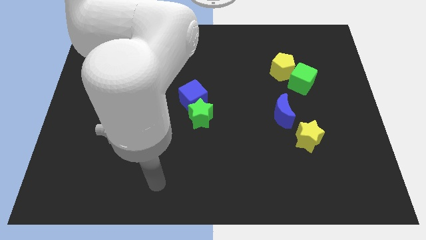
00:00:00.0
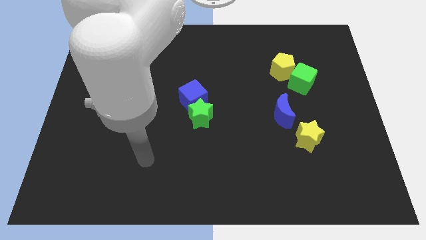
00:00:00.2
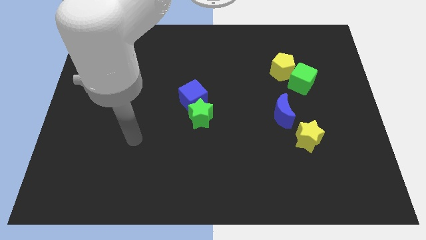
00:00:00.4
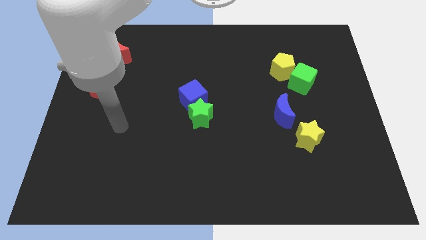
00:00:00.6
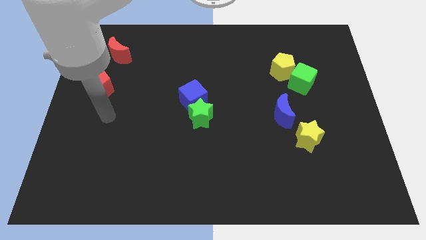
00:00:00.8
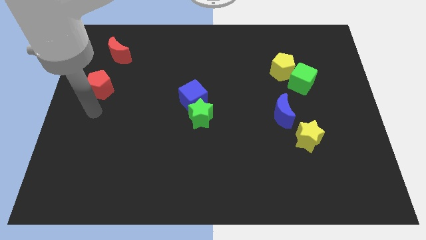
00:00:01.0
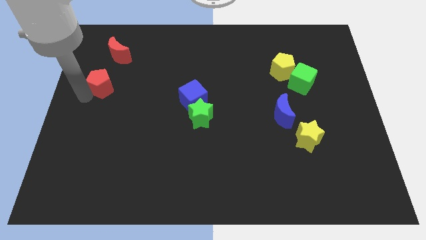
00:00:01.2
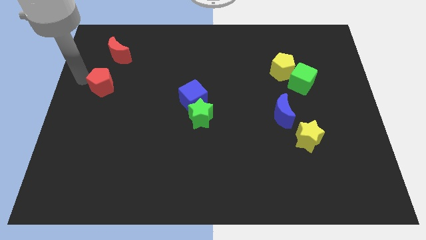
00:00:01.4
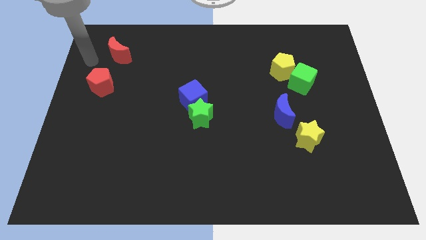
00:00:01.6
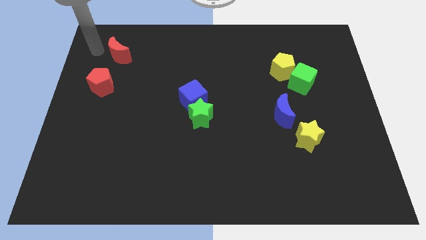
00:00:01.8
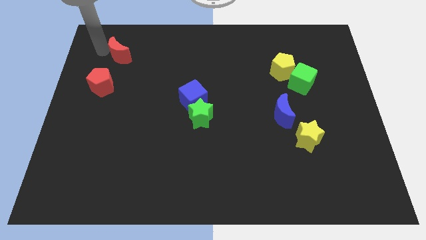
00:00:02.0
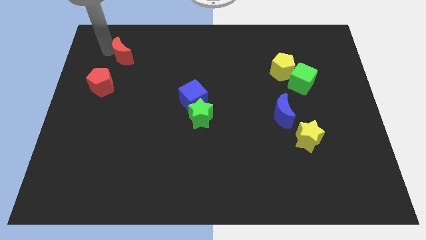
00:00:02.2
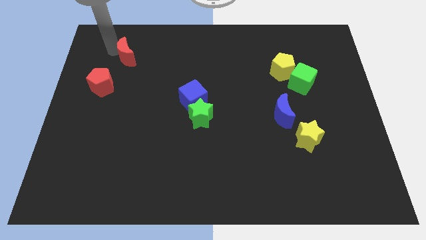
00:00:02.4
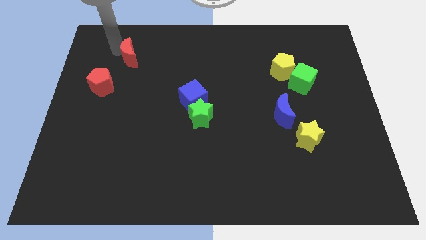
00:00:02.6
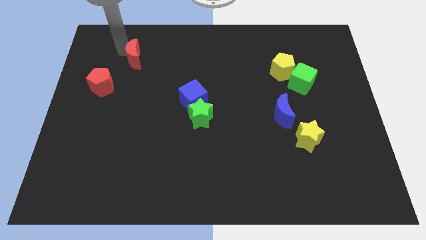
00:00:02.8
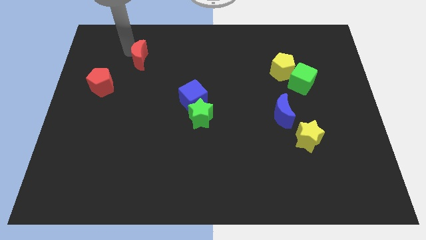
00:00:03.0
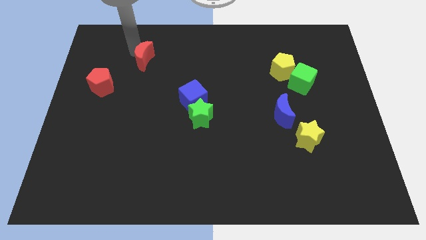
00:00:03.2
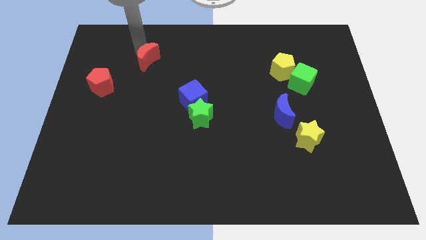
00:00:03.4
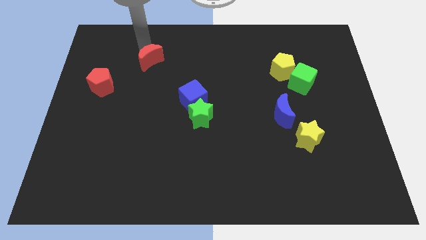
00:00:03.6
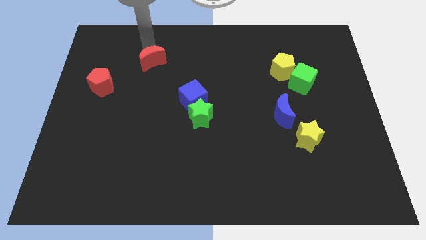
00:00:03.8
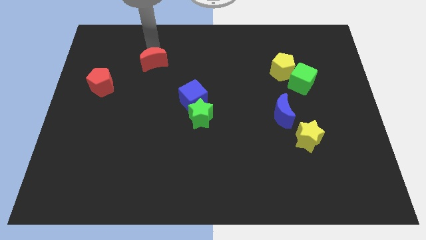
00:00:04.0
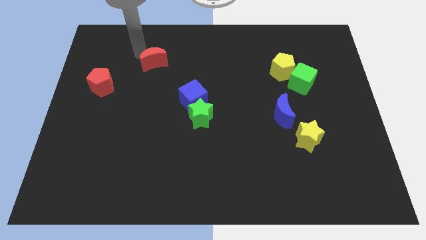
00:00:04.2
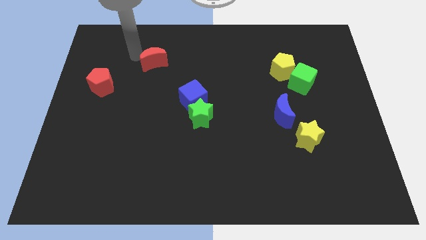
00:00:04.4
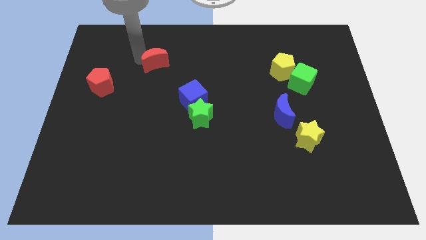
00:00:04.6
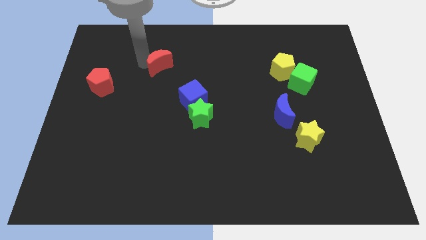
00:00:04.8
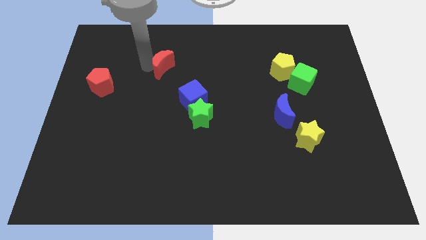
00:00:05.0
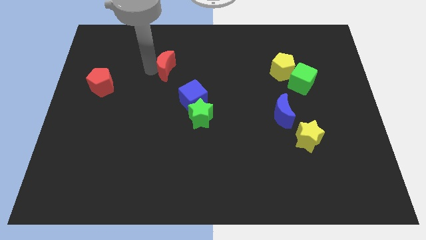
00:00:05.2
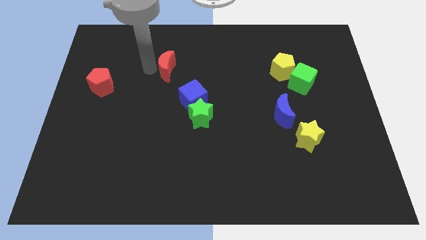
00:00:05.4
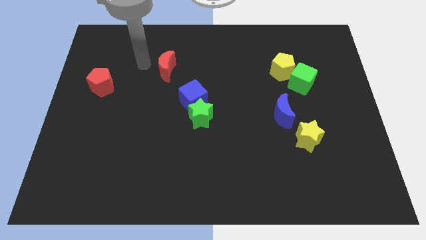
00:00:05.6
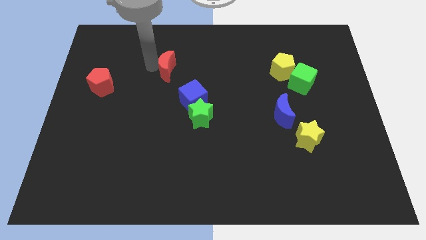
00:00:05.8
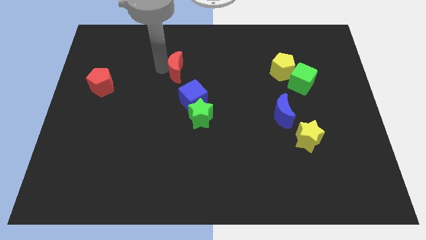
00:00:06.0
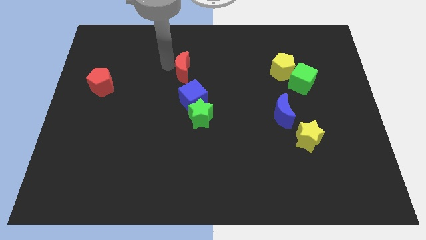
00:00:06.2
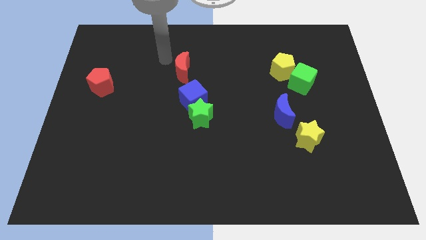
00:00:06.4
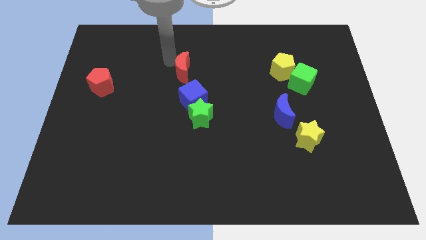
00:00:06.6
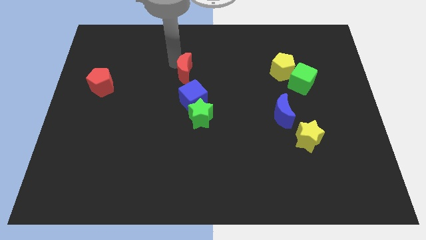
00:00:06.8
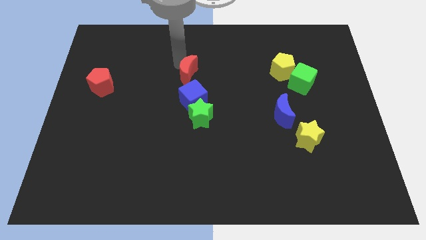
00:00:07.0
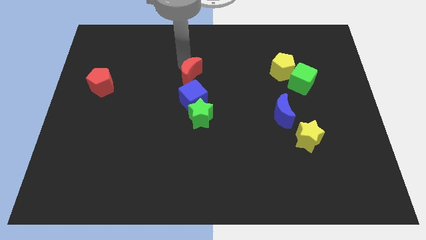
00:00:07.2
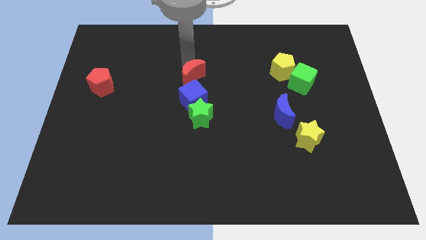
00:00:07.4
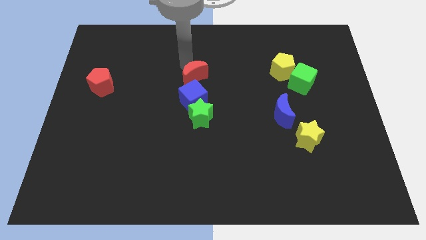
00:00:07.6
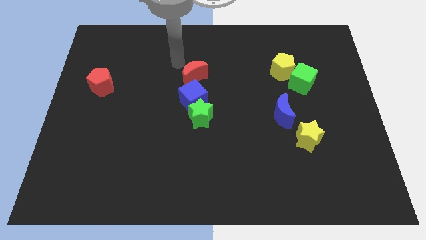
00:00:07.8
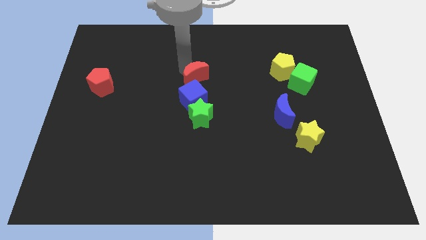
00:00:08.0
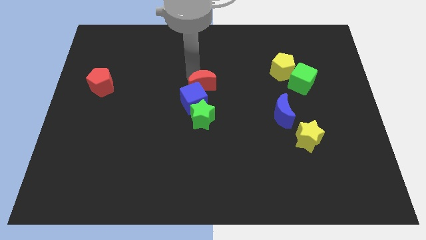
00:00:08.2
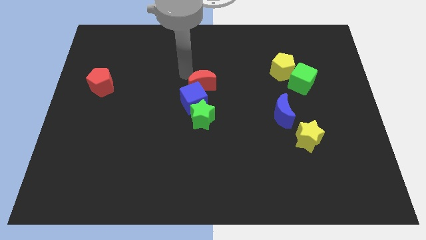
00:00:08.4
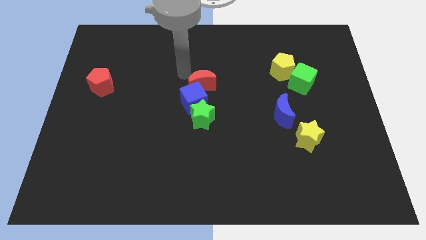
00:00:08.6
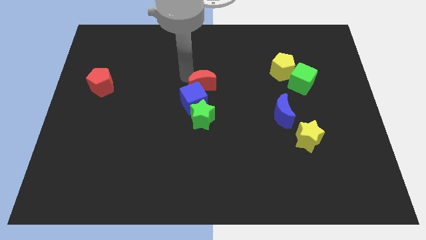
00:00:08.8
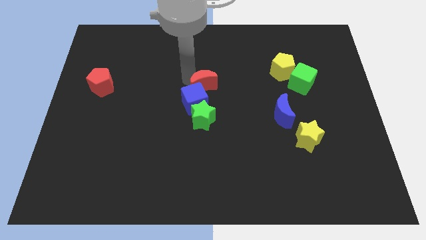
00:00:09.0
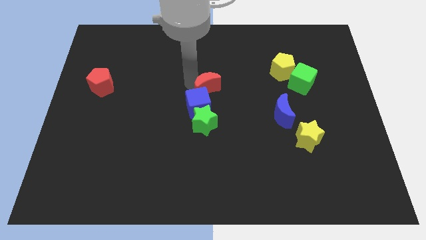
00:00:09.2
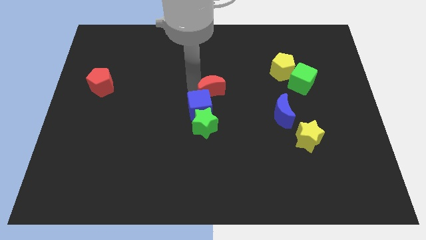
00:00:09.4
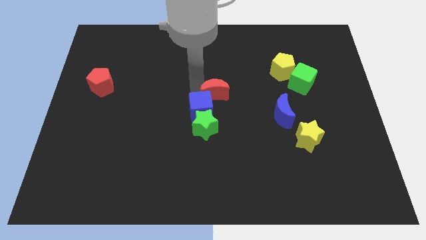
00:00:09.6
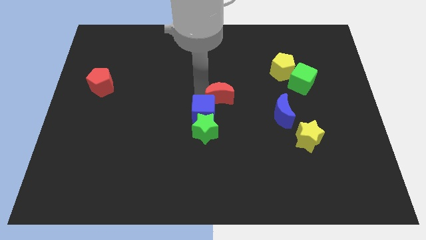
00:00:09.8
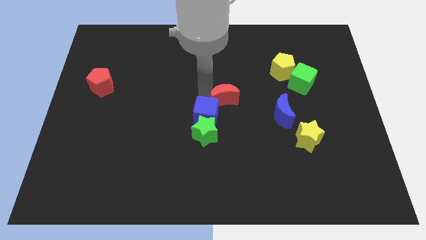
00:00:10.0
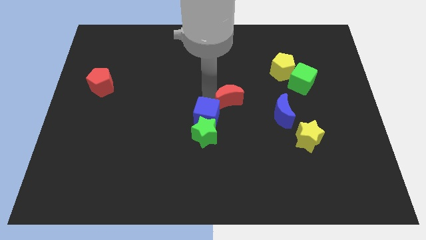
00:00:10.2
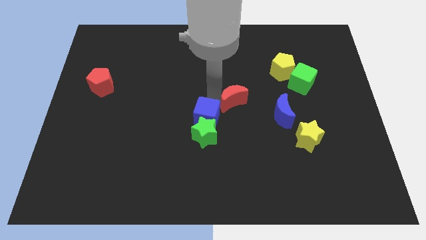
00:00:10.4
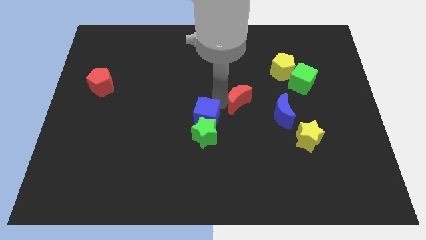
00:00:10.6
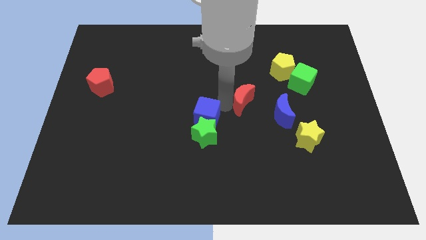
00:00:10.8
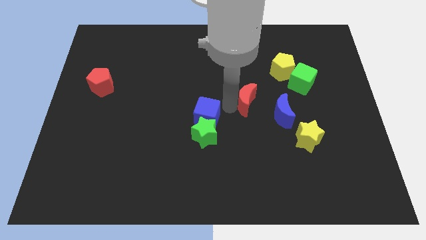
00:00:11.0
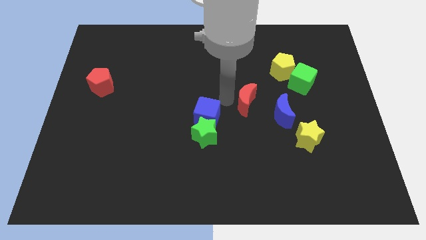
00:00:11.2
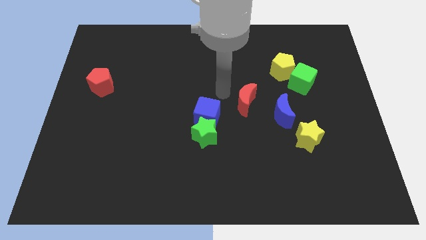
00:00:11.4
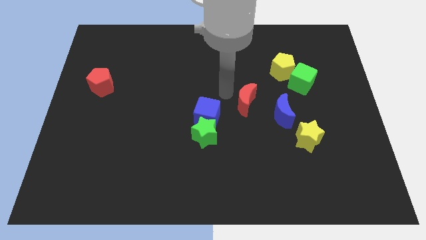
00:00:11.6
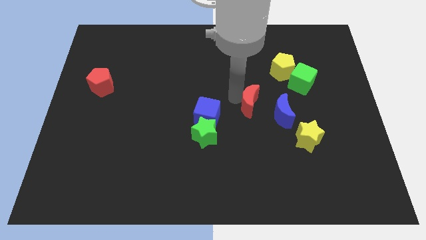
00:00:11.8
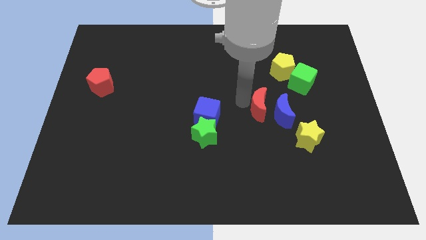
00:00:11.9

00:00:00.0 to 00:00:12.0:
move the red moon towards the blue moon

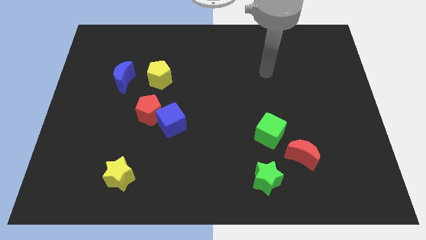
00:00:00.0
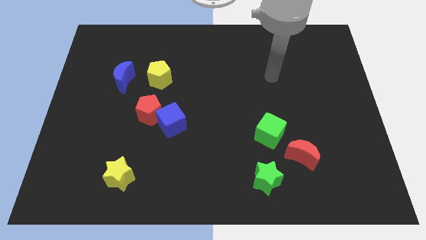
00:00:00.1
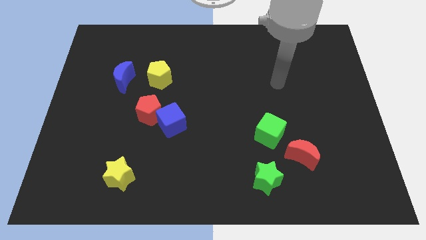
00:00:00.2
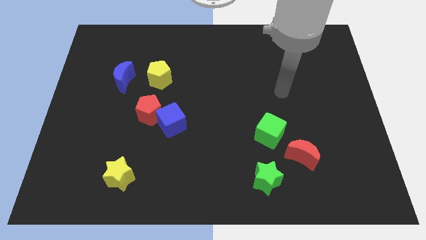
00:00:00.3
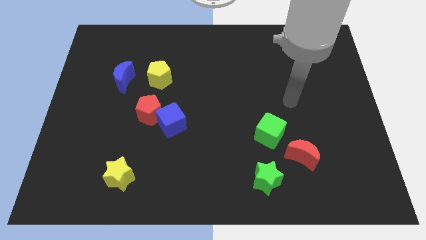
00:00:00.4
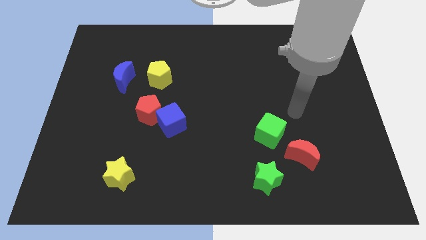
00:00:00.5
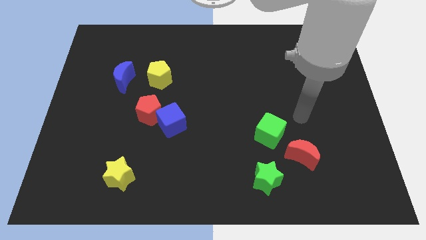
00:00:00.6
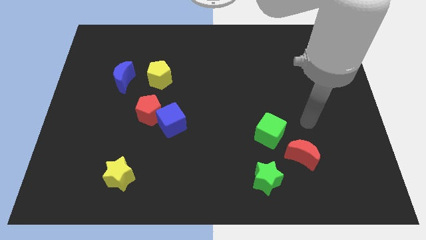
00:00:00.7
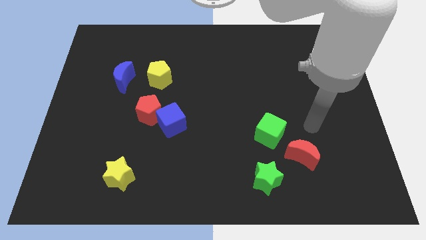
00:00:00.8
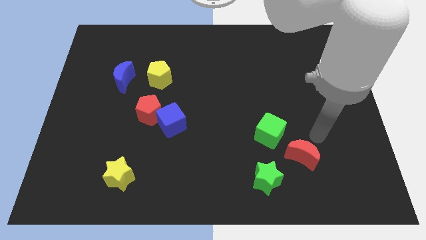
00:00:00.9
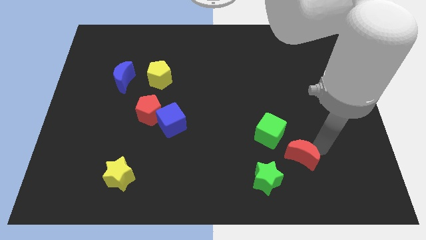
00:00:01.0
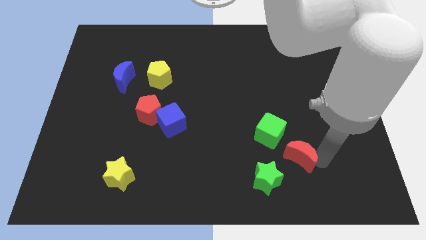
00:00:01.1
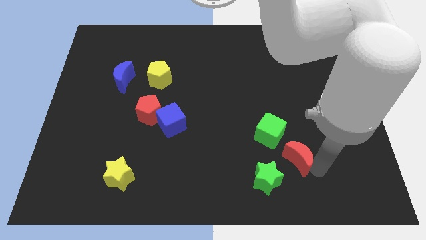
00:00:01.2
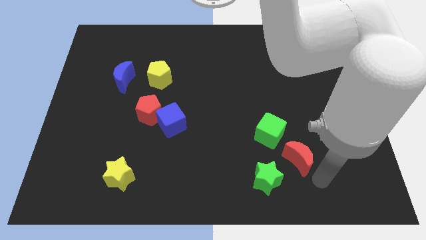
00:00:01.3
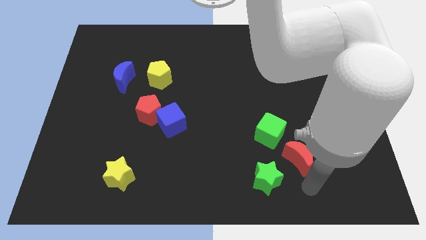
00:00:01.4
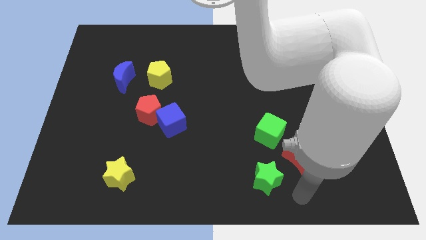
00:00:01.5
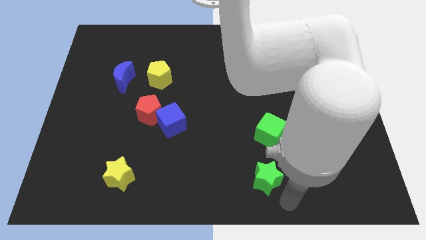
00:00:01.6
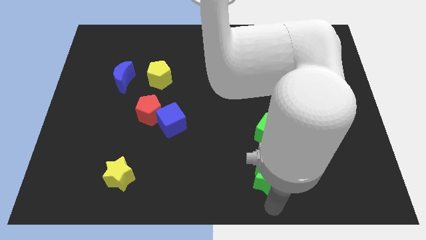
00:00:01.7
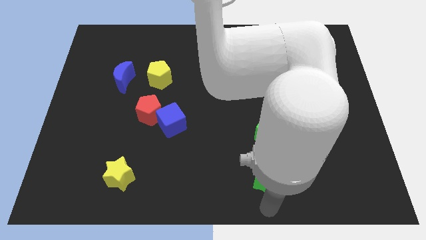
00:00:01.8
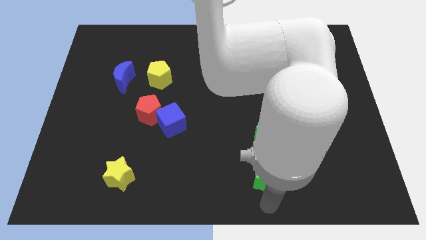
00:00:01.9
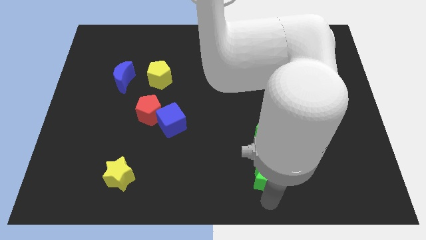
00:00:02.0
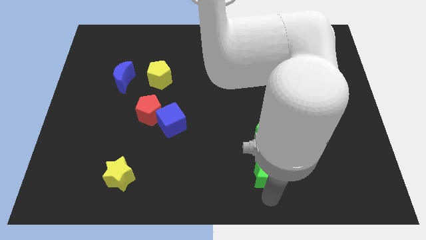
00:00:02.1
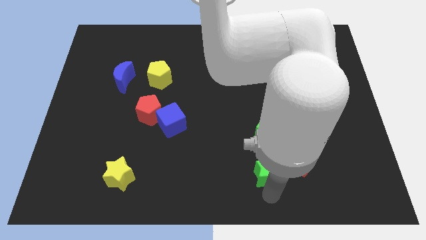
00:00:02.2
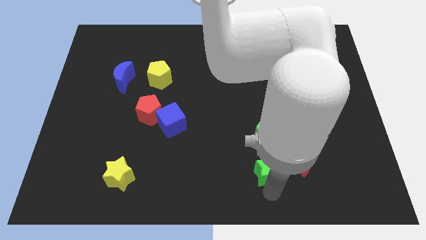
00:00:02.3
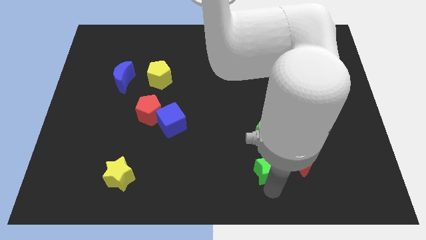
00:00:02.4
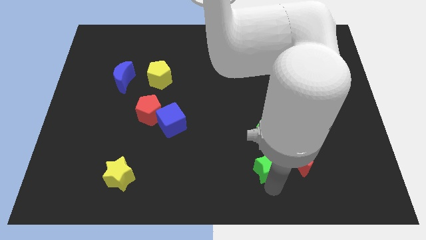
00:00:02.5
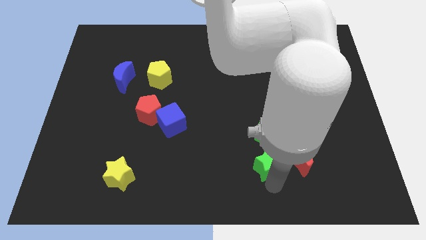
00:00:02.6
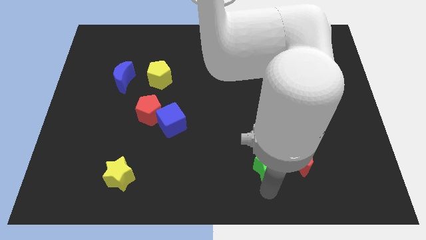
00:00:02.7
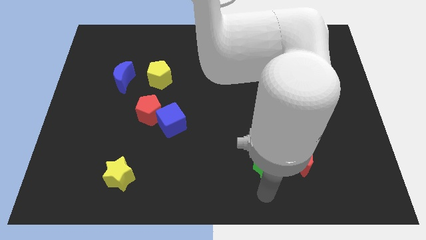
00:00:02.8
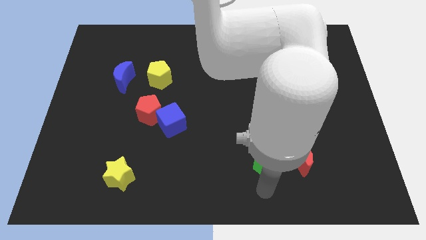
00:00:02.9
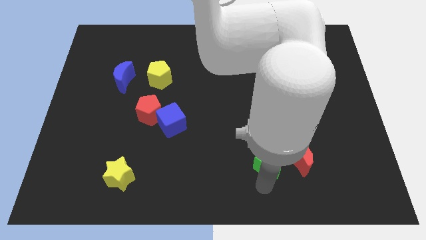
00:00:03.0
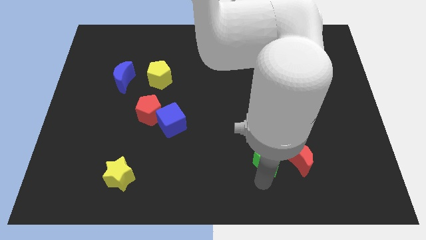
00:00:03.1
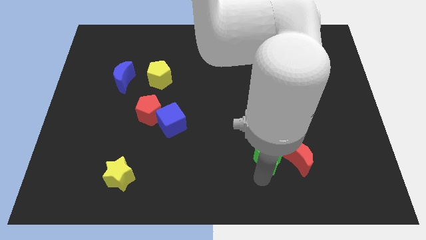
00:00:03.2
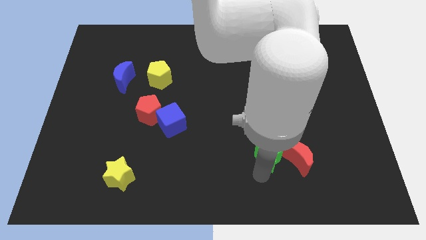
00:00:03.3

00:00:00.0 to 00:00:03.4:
put the green star to the green cube
